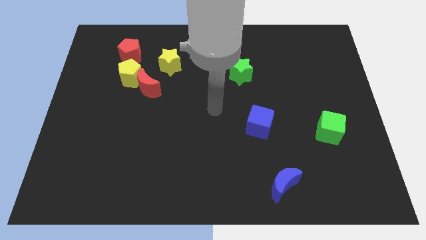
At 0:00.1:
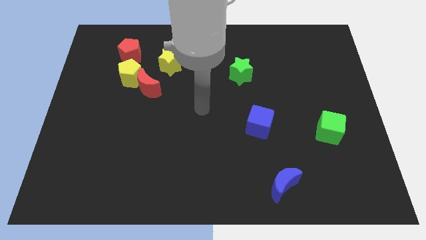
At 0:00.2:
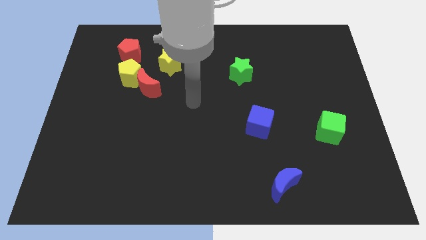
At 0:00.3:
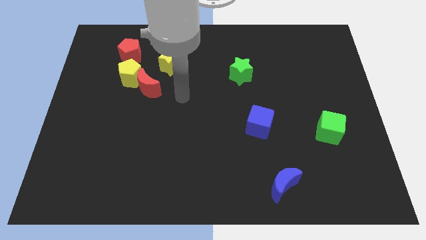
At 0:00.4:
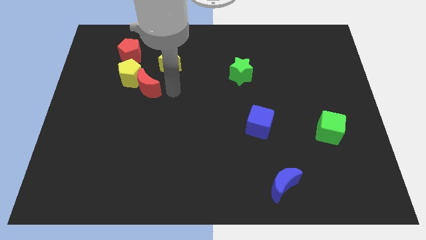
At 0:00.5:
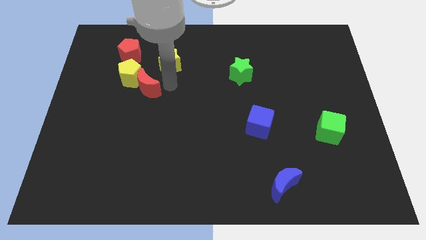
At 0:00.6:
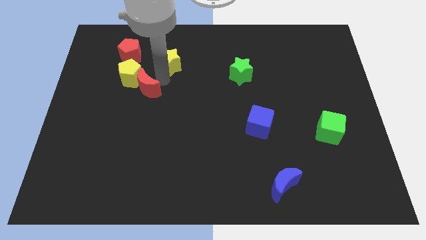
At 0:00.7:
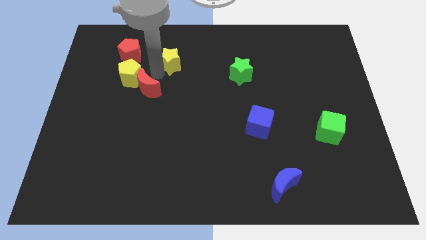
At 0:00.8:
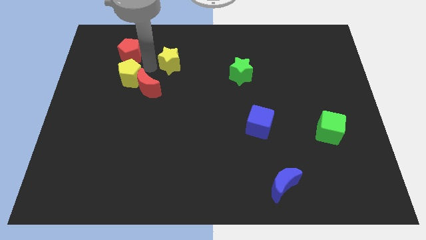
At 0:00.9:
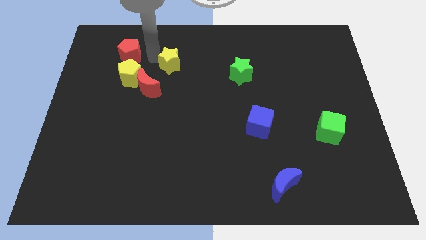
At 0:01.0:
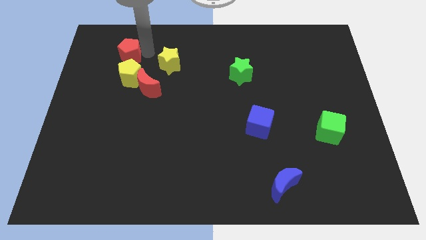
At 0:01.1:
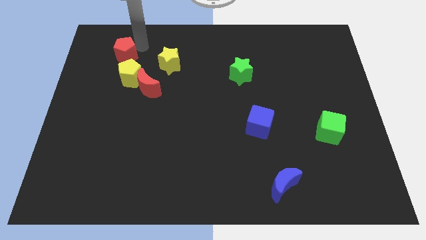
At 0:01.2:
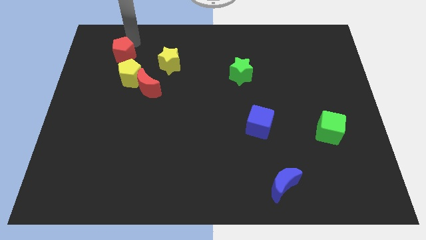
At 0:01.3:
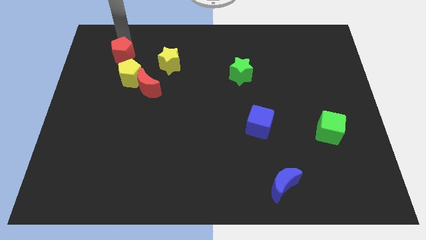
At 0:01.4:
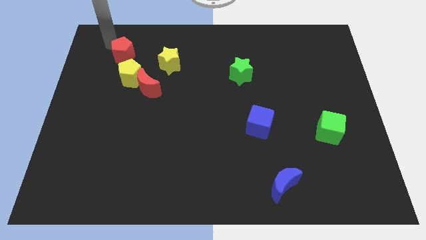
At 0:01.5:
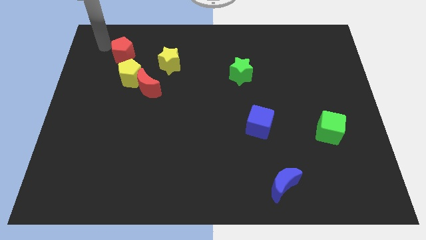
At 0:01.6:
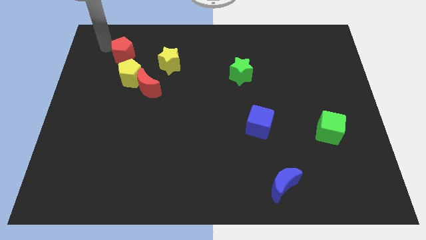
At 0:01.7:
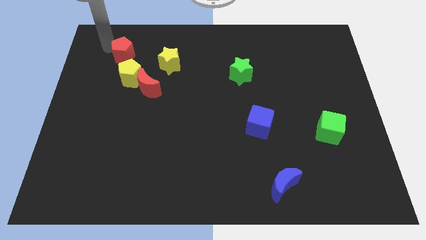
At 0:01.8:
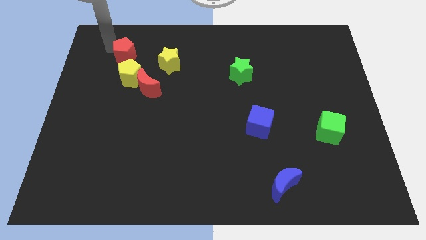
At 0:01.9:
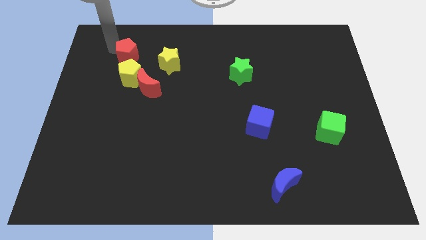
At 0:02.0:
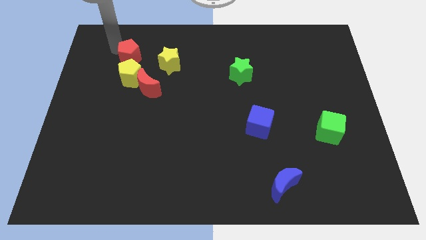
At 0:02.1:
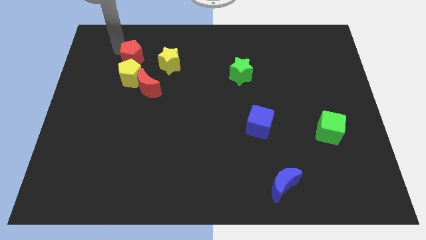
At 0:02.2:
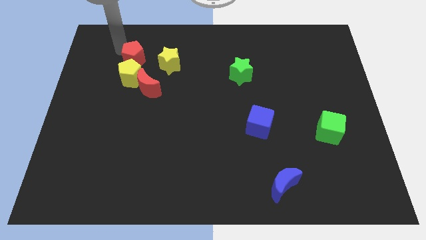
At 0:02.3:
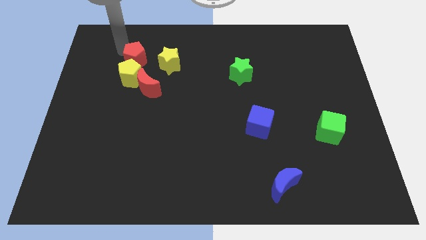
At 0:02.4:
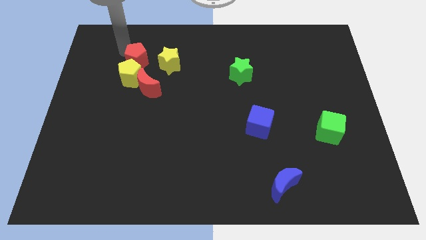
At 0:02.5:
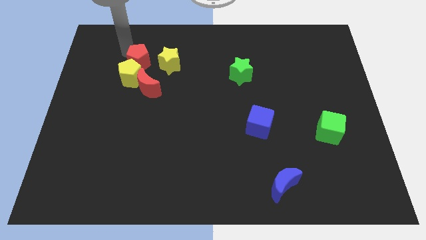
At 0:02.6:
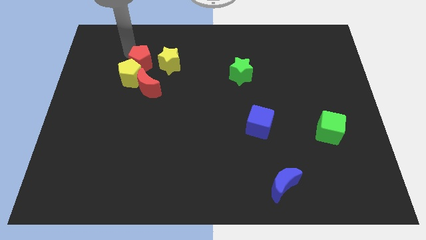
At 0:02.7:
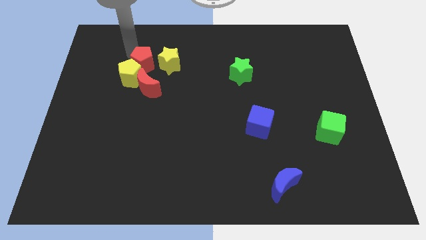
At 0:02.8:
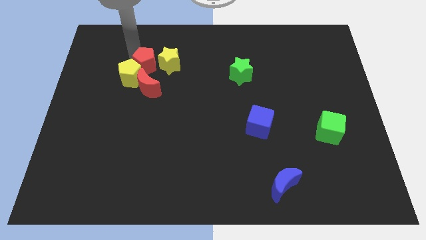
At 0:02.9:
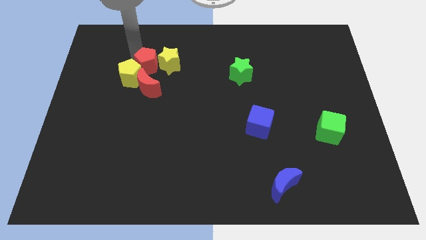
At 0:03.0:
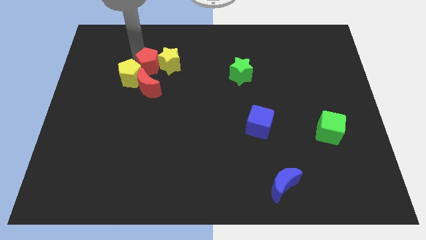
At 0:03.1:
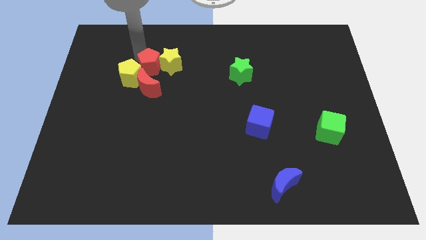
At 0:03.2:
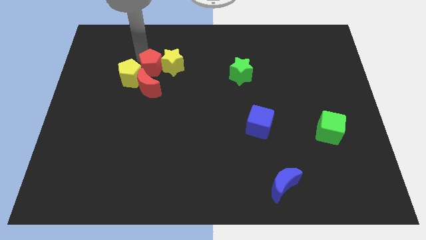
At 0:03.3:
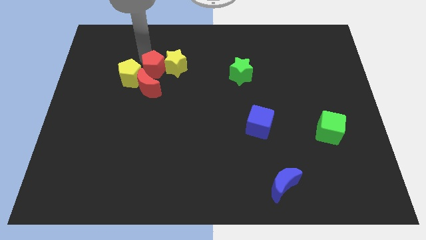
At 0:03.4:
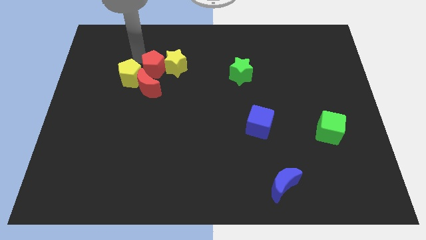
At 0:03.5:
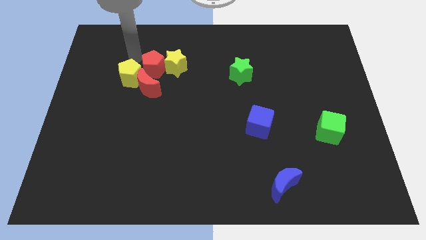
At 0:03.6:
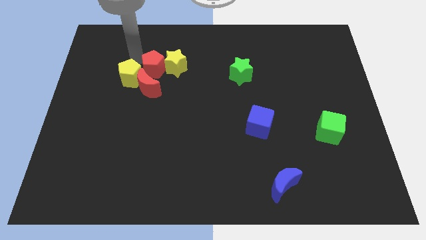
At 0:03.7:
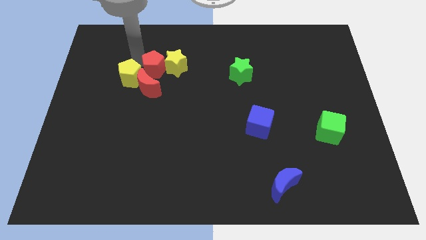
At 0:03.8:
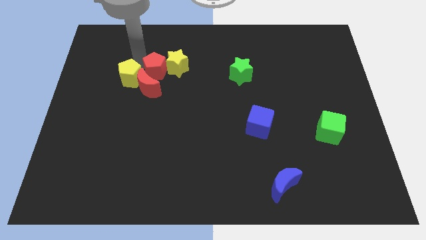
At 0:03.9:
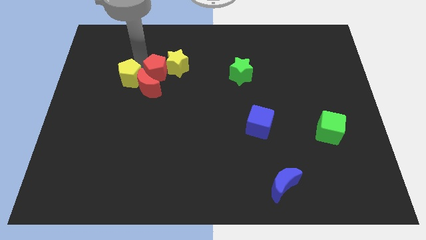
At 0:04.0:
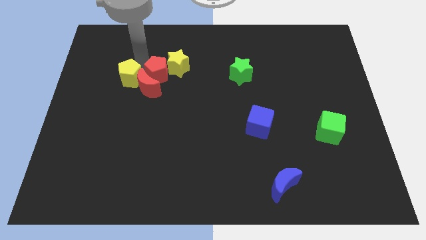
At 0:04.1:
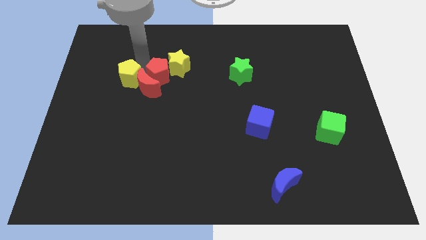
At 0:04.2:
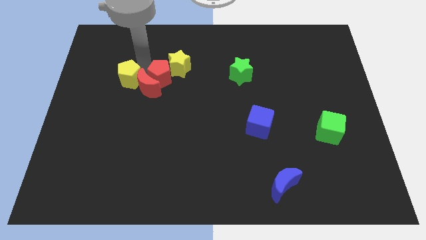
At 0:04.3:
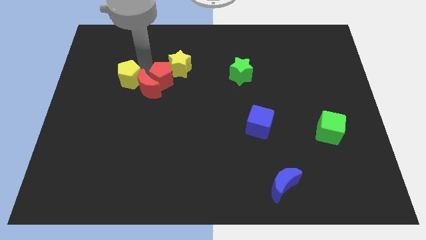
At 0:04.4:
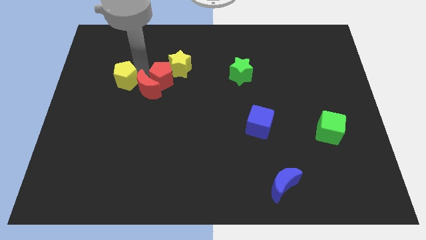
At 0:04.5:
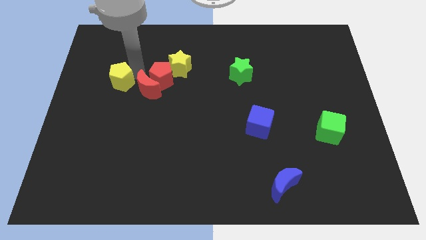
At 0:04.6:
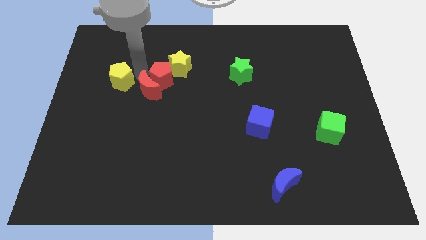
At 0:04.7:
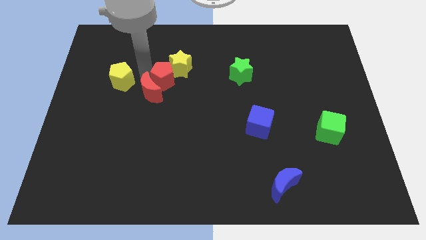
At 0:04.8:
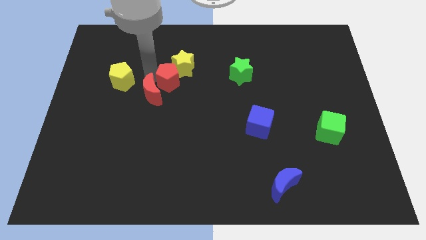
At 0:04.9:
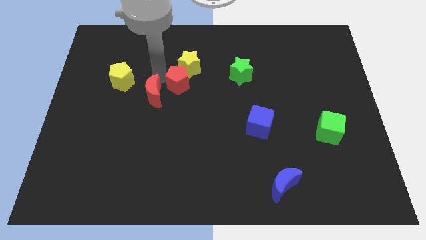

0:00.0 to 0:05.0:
move the red pentagon to the center

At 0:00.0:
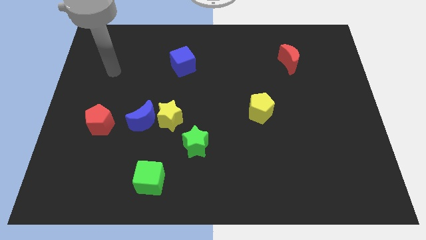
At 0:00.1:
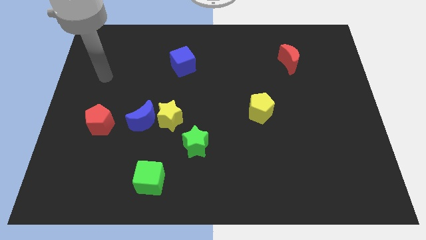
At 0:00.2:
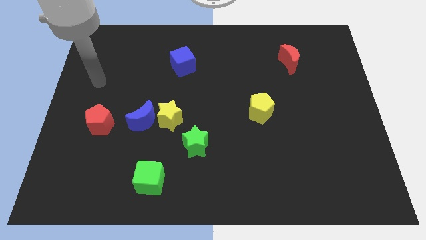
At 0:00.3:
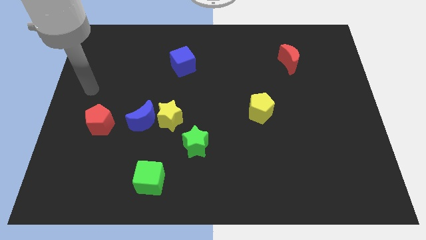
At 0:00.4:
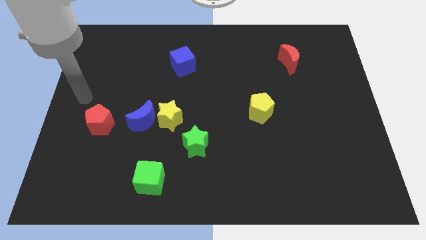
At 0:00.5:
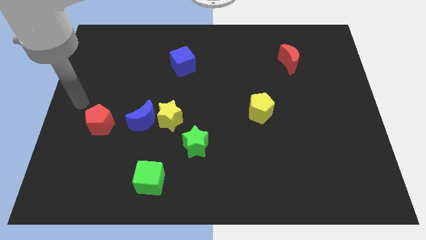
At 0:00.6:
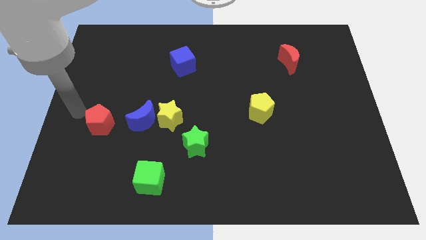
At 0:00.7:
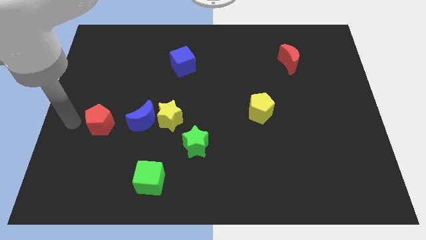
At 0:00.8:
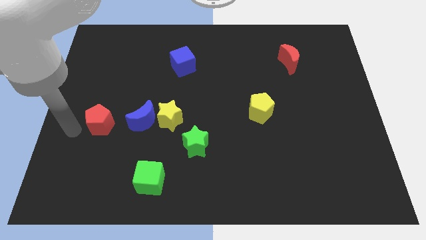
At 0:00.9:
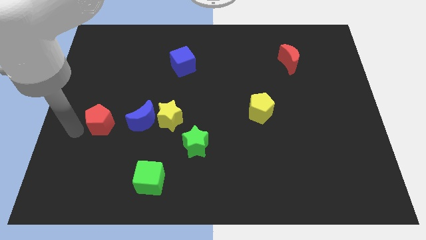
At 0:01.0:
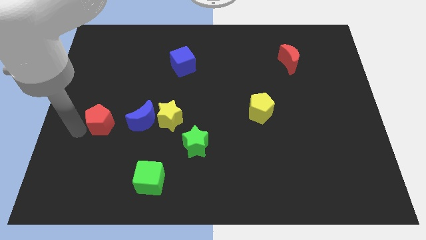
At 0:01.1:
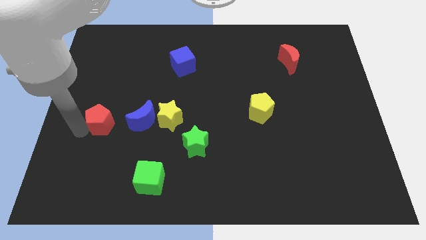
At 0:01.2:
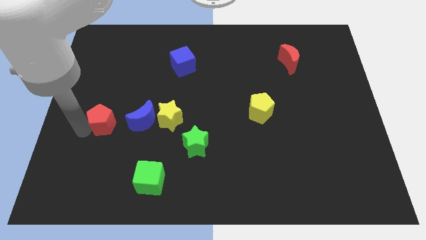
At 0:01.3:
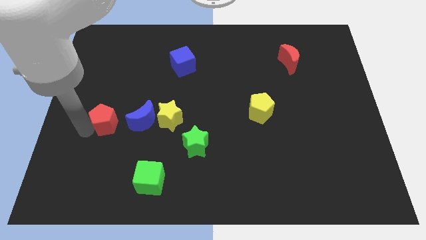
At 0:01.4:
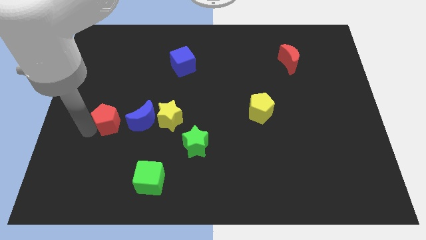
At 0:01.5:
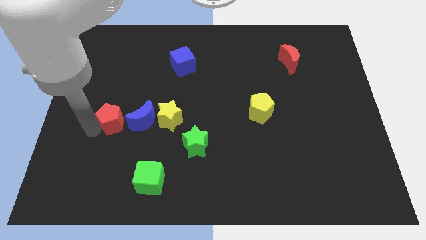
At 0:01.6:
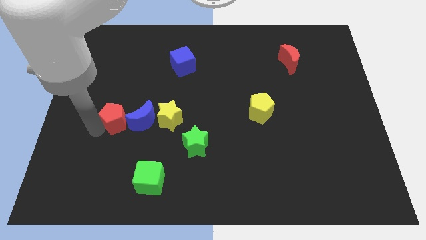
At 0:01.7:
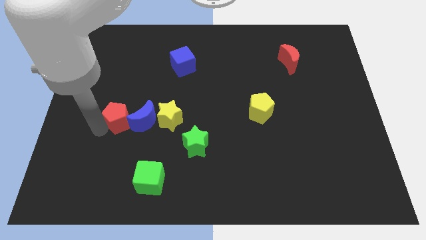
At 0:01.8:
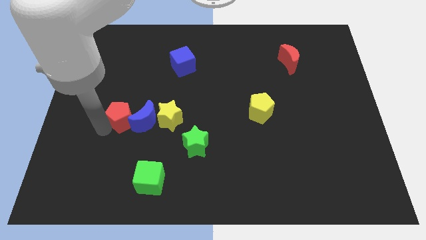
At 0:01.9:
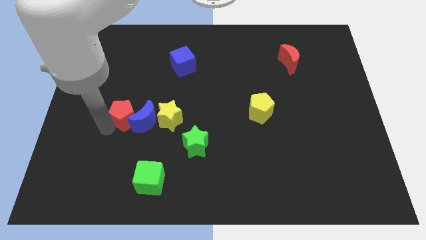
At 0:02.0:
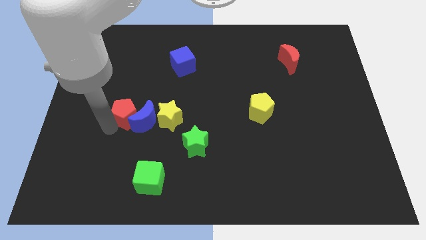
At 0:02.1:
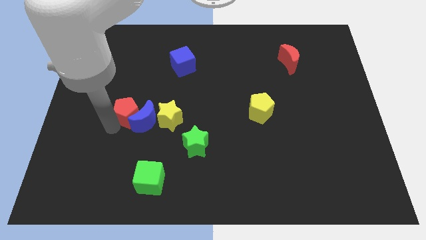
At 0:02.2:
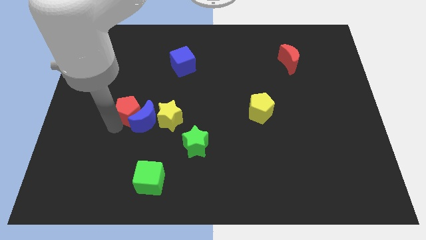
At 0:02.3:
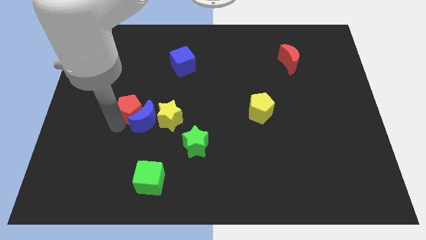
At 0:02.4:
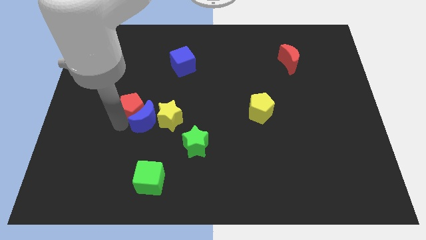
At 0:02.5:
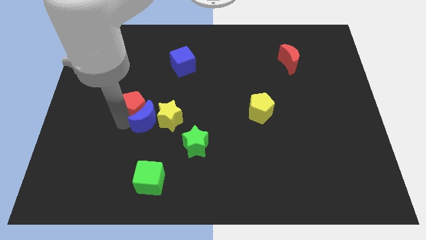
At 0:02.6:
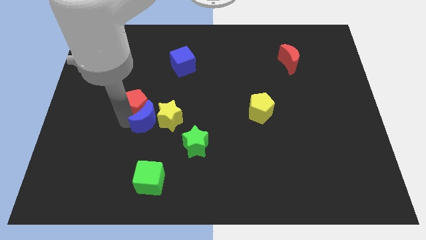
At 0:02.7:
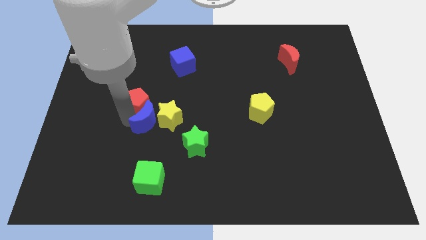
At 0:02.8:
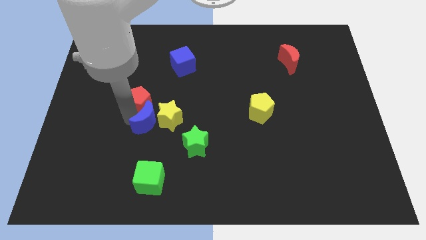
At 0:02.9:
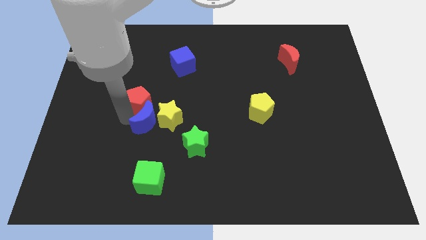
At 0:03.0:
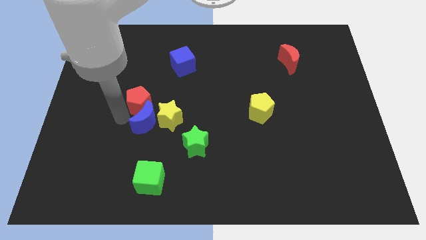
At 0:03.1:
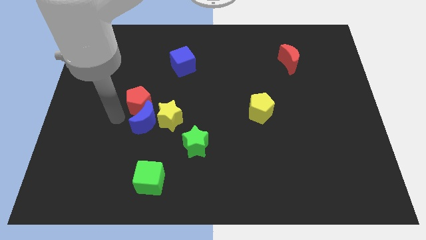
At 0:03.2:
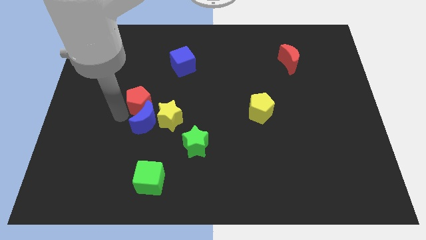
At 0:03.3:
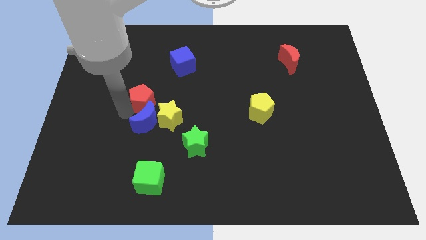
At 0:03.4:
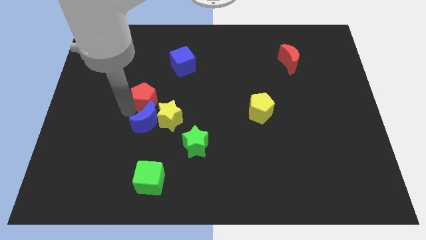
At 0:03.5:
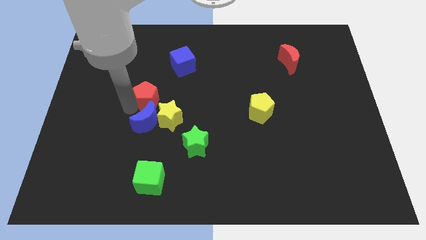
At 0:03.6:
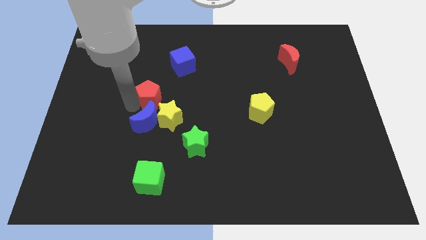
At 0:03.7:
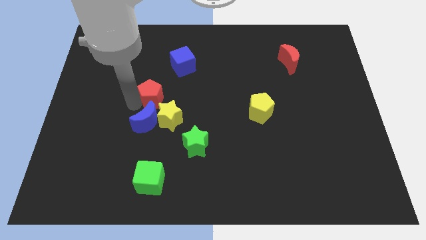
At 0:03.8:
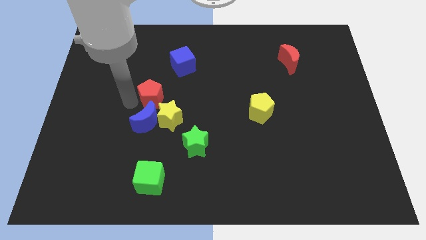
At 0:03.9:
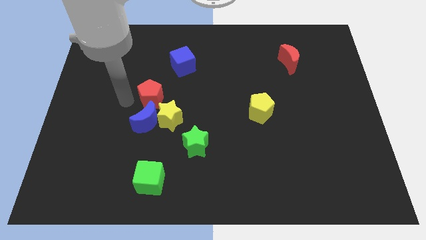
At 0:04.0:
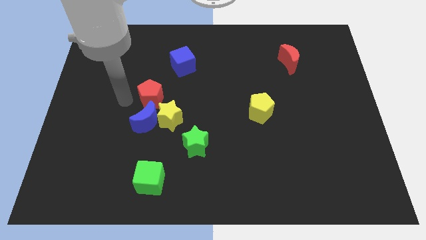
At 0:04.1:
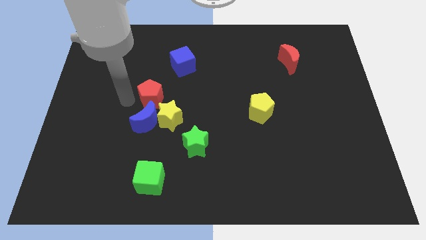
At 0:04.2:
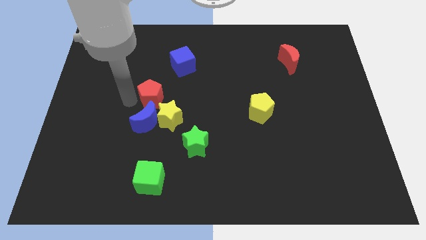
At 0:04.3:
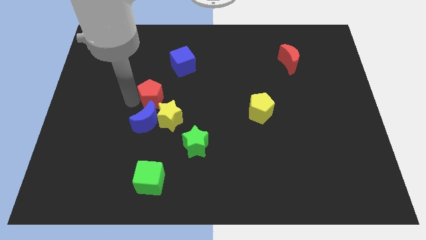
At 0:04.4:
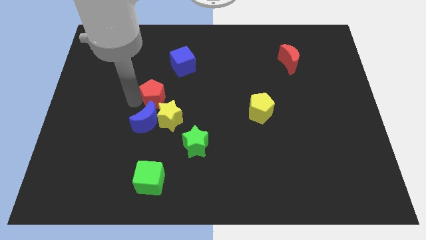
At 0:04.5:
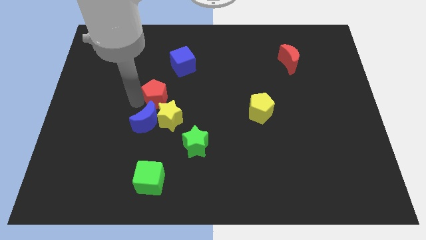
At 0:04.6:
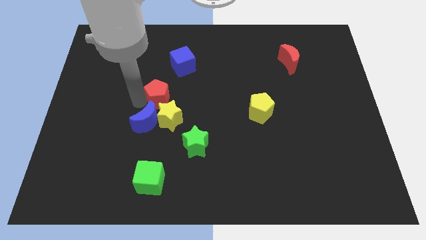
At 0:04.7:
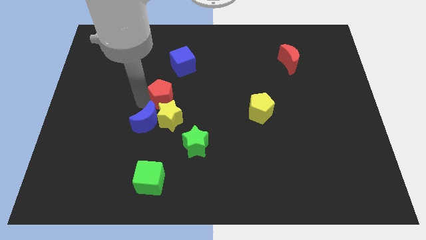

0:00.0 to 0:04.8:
slide the red pentagon to the center
